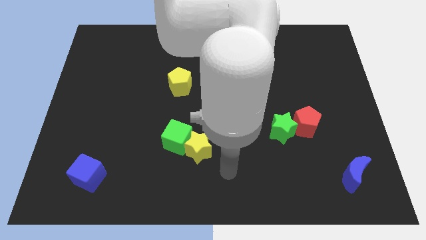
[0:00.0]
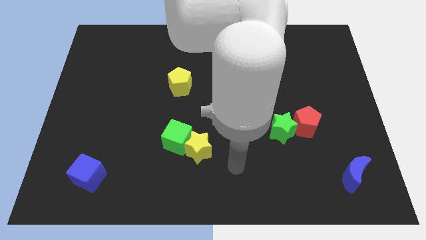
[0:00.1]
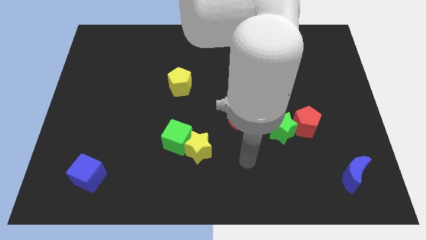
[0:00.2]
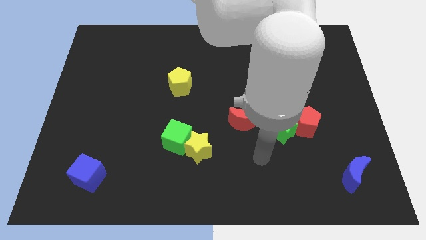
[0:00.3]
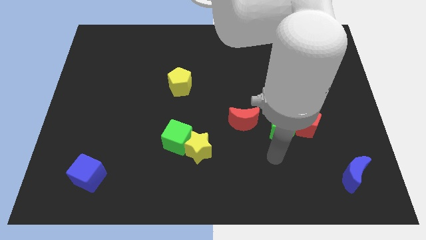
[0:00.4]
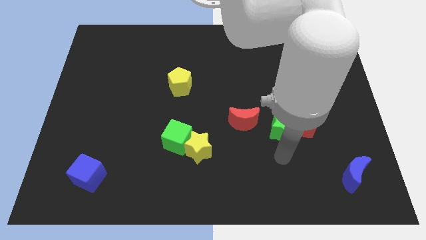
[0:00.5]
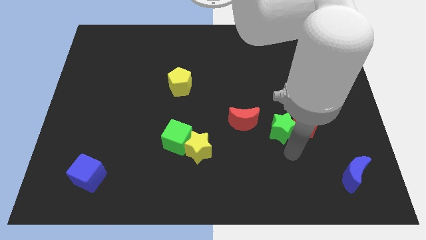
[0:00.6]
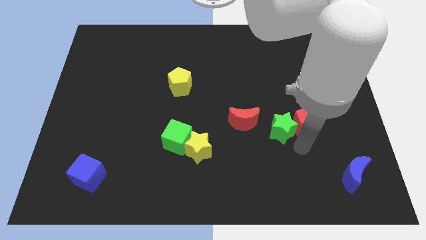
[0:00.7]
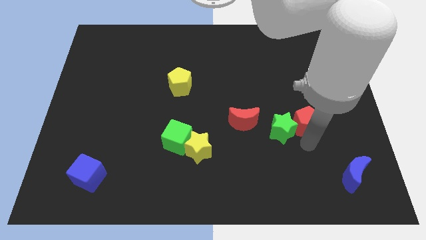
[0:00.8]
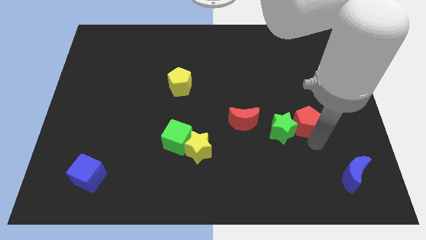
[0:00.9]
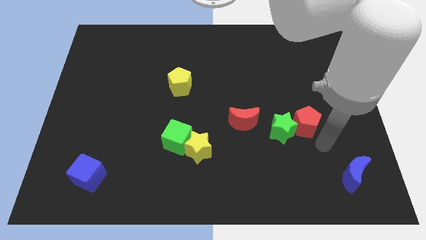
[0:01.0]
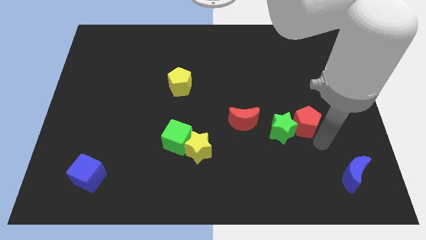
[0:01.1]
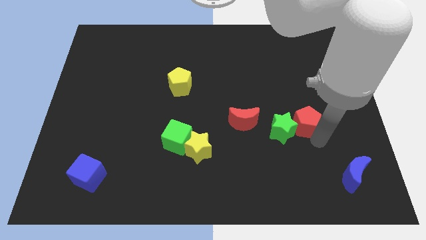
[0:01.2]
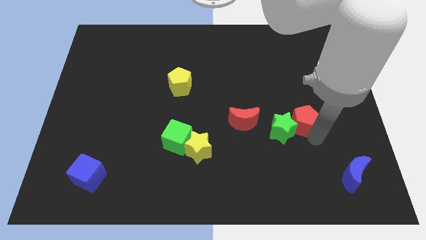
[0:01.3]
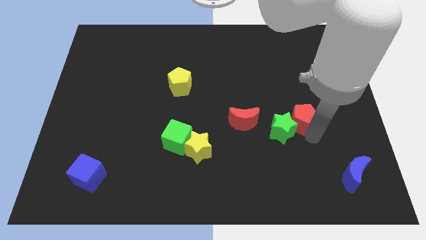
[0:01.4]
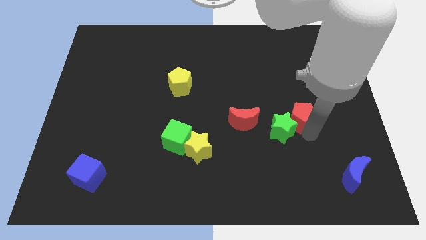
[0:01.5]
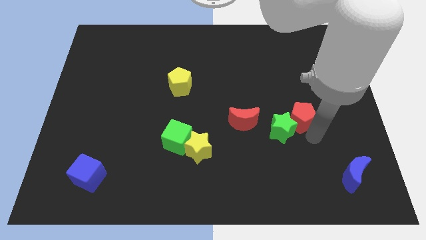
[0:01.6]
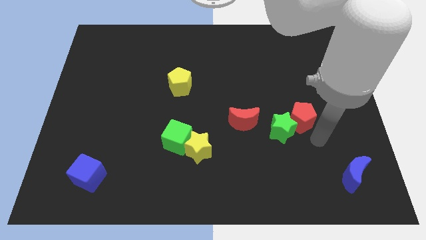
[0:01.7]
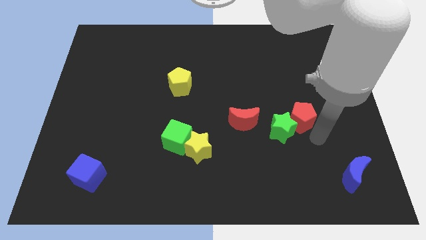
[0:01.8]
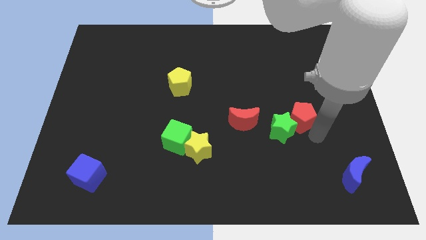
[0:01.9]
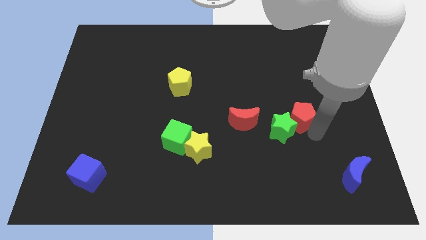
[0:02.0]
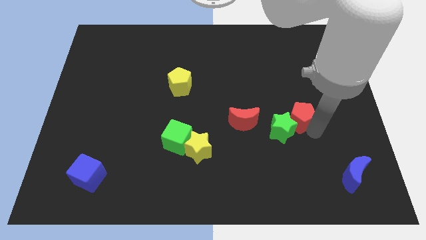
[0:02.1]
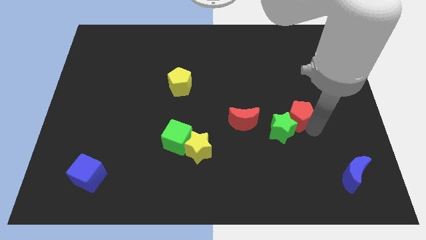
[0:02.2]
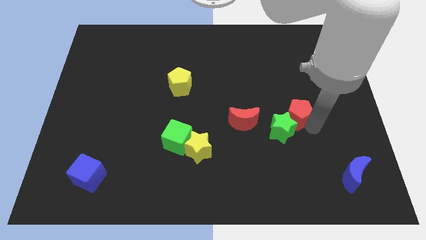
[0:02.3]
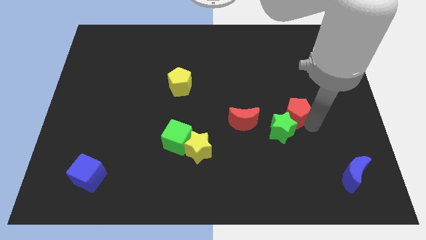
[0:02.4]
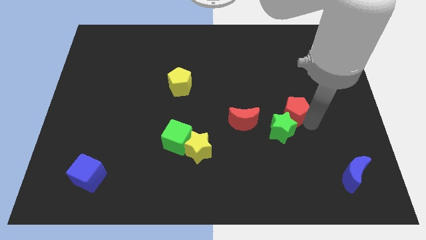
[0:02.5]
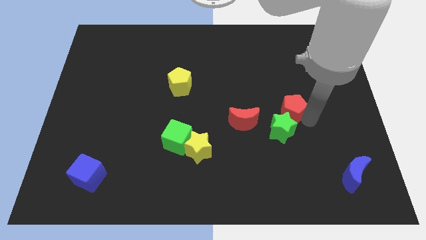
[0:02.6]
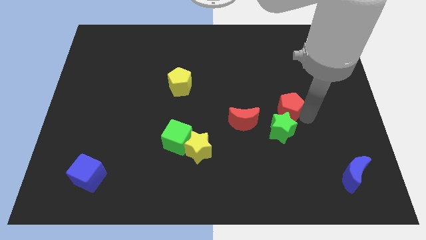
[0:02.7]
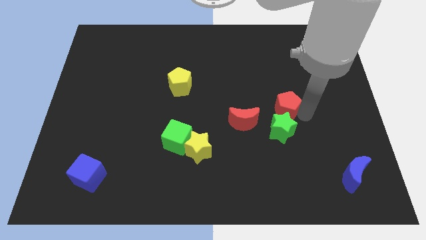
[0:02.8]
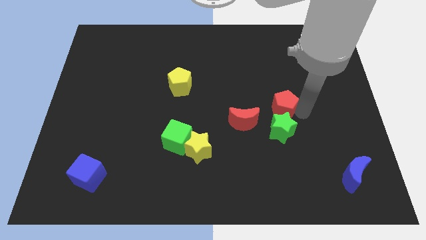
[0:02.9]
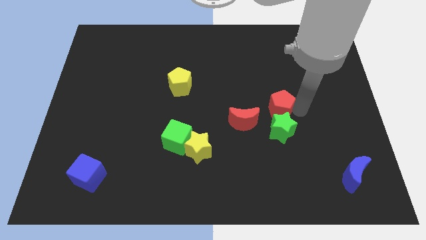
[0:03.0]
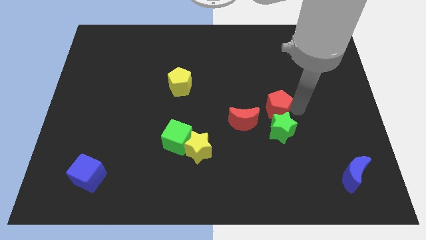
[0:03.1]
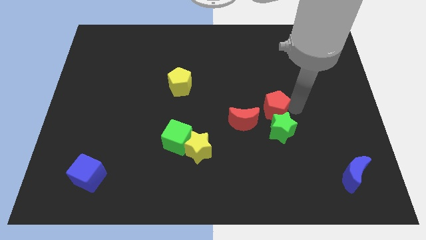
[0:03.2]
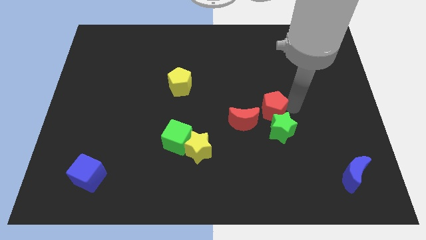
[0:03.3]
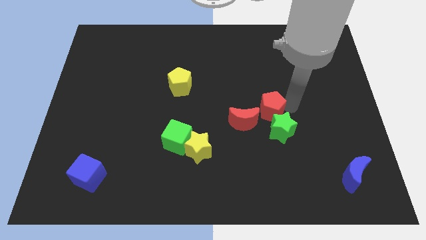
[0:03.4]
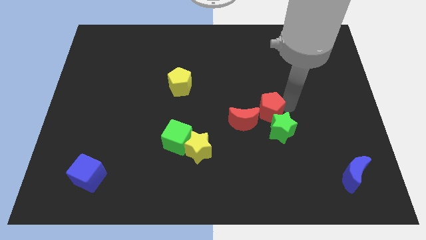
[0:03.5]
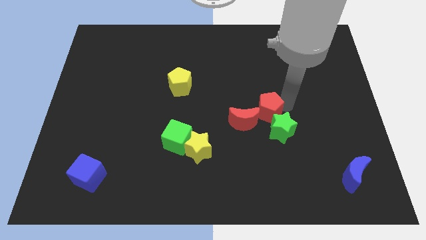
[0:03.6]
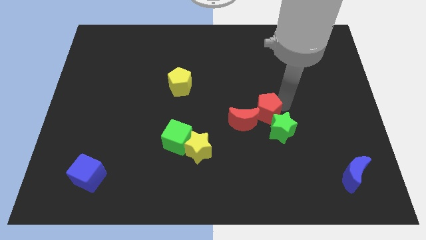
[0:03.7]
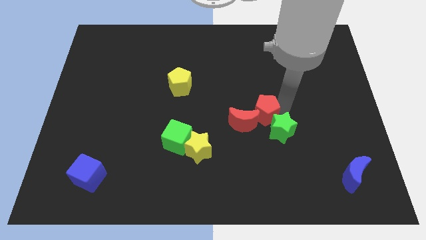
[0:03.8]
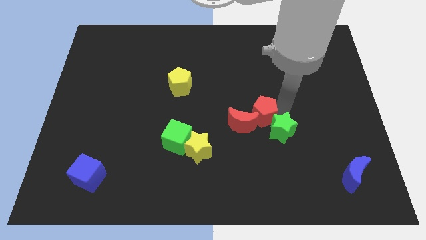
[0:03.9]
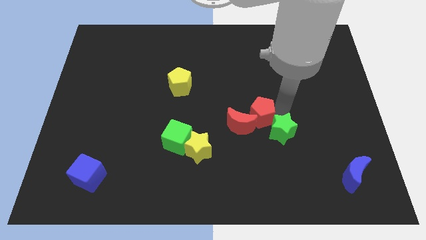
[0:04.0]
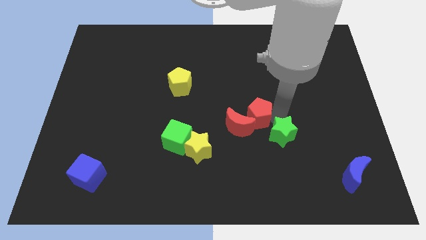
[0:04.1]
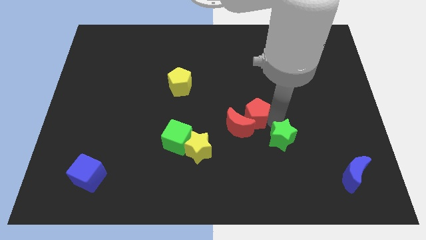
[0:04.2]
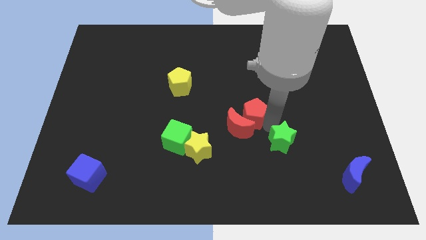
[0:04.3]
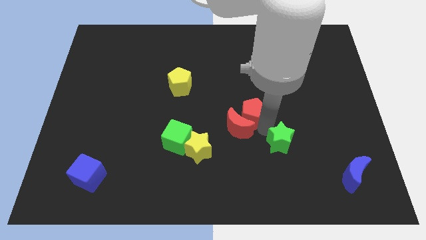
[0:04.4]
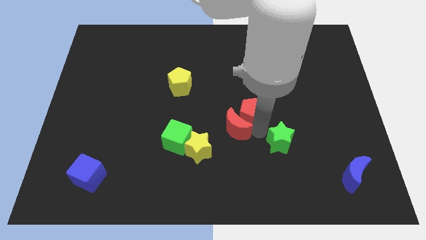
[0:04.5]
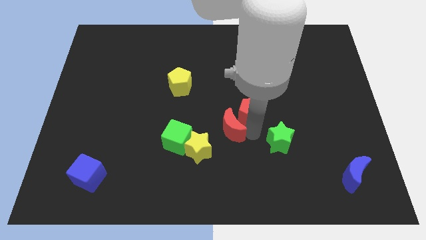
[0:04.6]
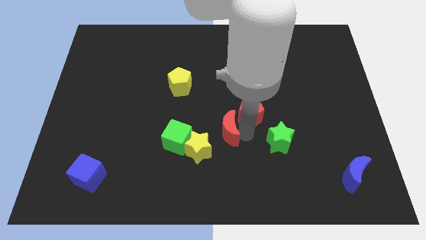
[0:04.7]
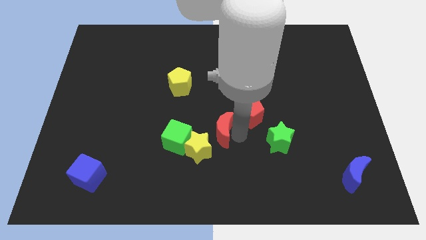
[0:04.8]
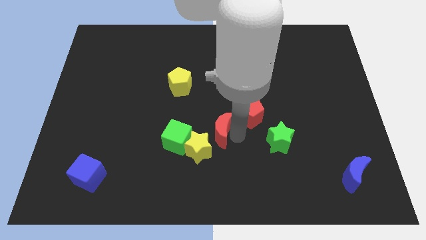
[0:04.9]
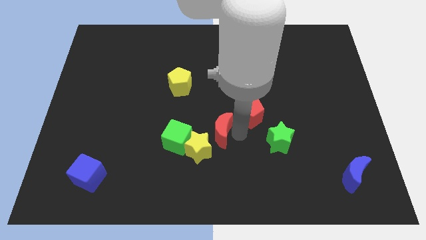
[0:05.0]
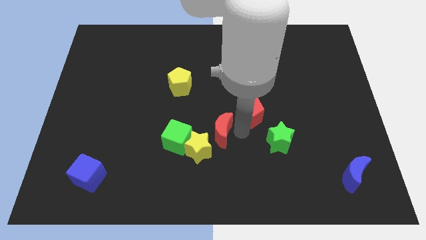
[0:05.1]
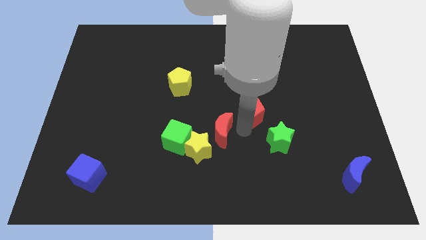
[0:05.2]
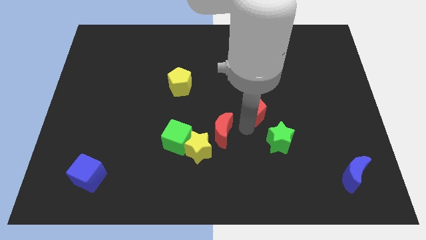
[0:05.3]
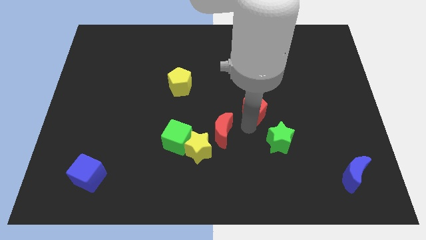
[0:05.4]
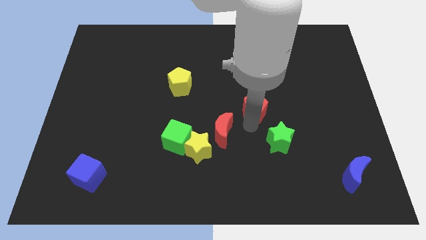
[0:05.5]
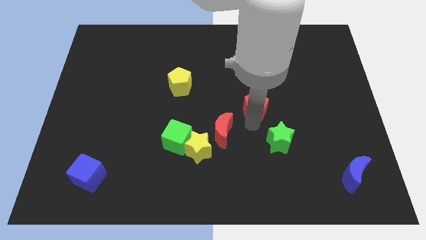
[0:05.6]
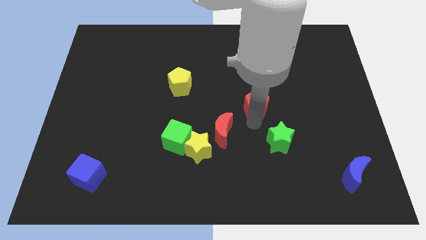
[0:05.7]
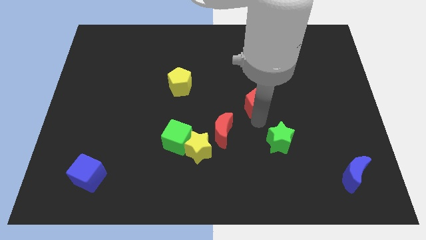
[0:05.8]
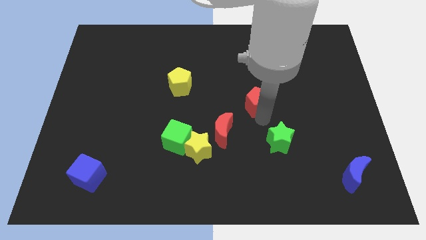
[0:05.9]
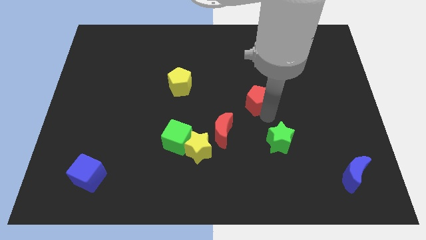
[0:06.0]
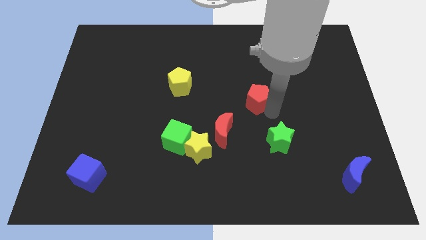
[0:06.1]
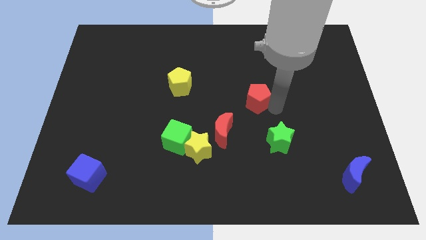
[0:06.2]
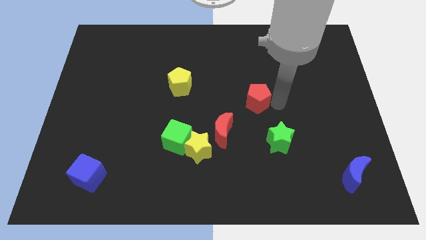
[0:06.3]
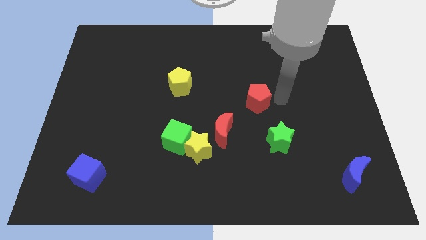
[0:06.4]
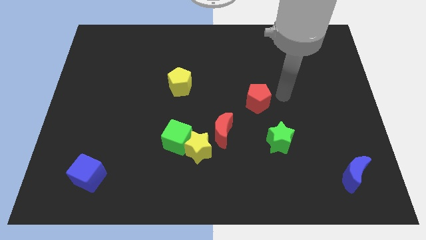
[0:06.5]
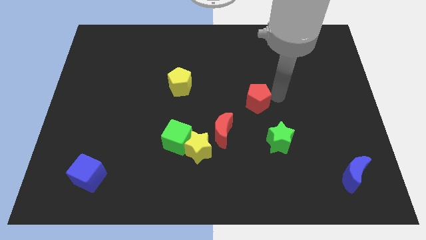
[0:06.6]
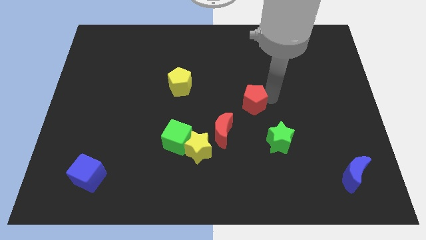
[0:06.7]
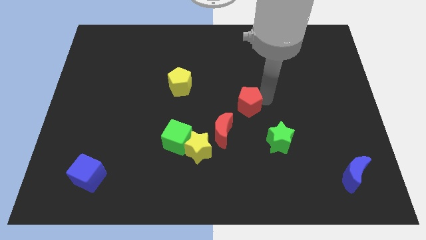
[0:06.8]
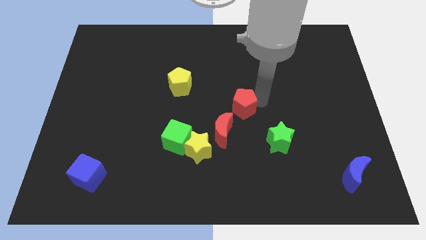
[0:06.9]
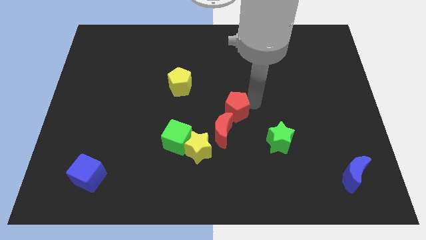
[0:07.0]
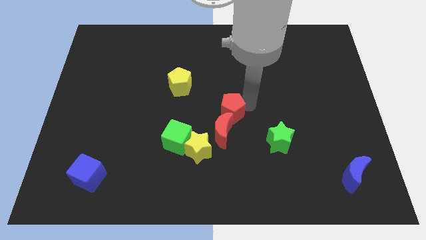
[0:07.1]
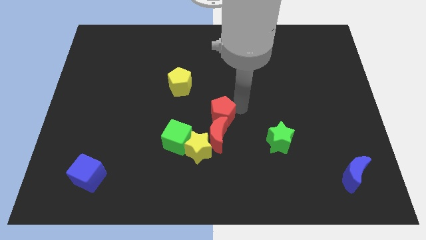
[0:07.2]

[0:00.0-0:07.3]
put the red pentagon to the top right of the green cube
